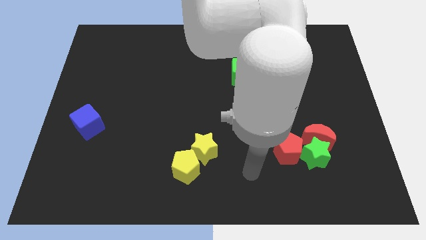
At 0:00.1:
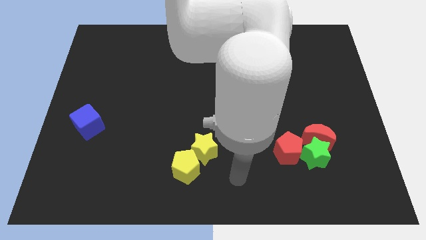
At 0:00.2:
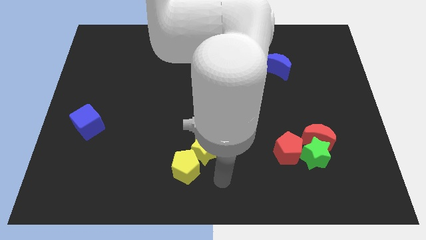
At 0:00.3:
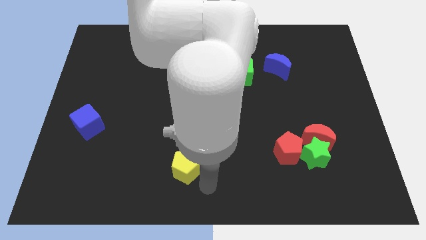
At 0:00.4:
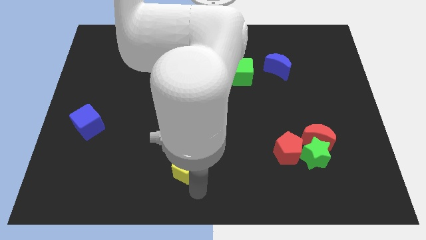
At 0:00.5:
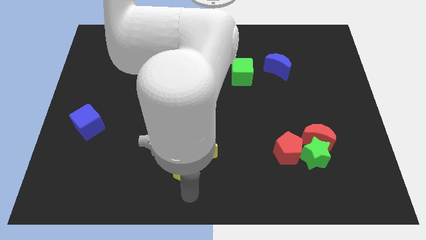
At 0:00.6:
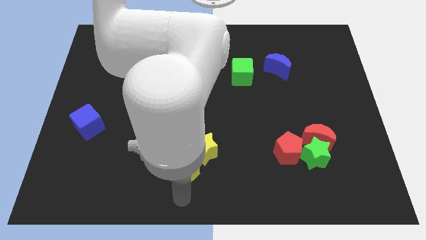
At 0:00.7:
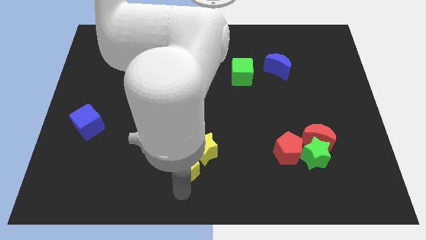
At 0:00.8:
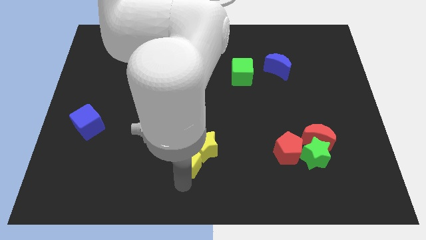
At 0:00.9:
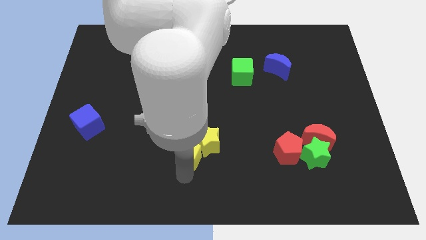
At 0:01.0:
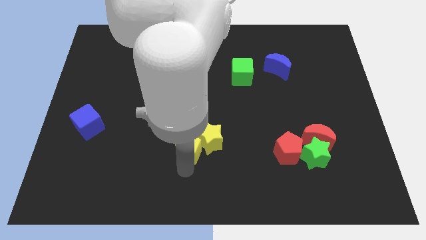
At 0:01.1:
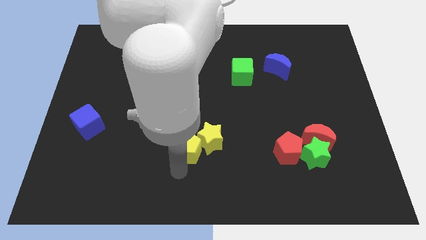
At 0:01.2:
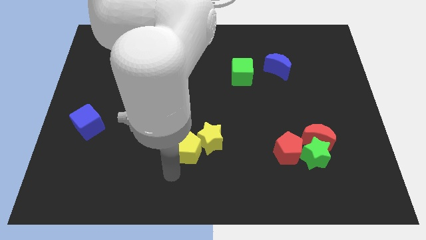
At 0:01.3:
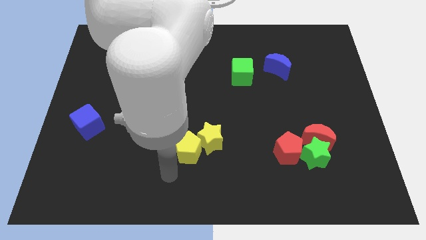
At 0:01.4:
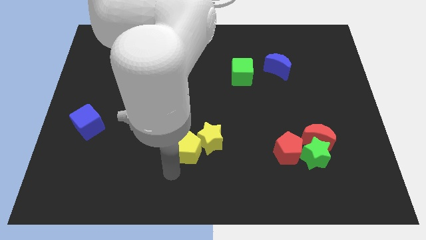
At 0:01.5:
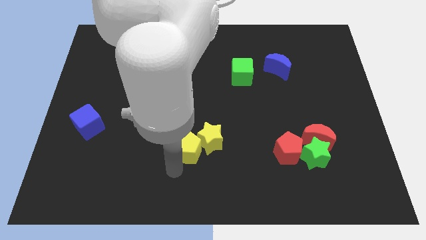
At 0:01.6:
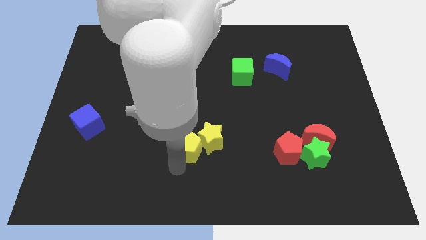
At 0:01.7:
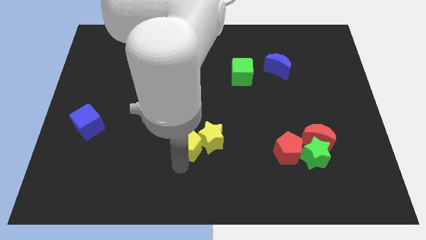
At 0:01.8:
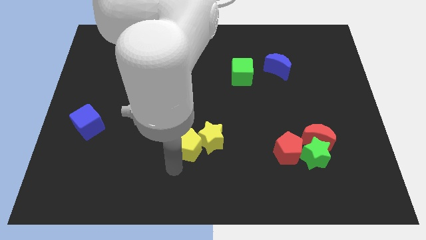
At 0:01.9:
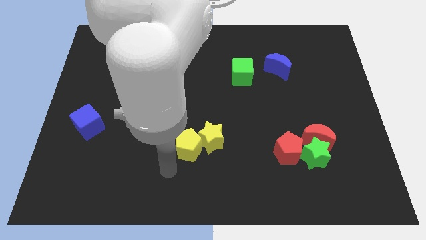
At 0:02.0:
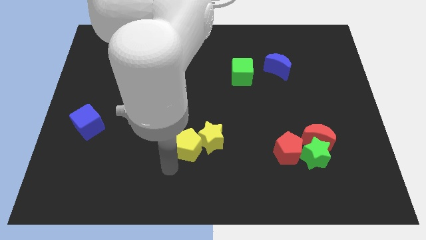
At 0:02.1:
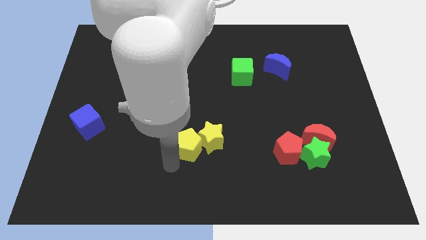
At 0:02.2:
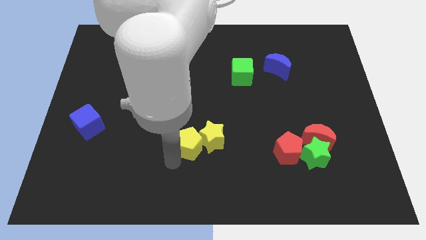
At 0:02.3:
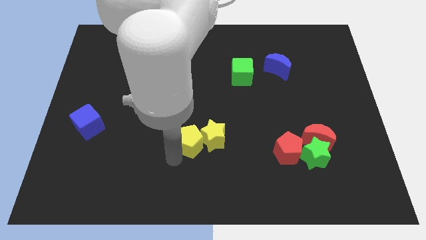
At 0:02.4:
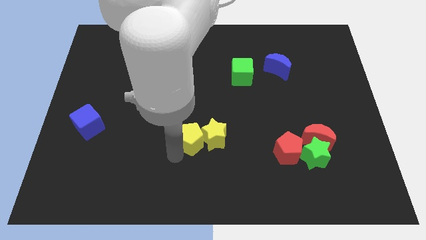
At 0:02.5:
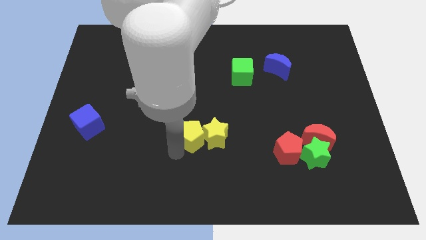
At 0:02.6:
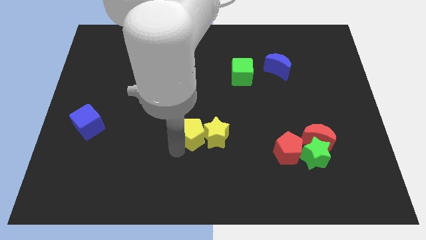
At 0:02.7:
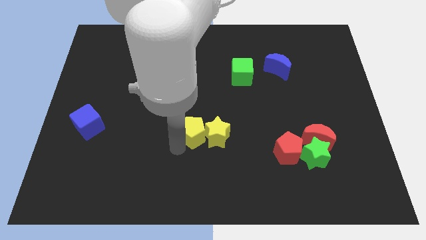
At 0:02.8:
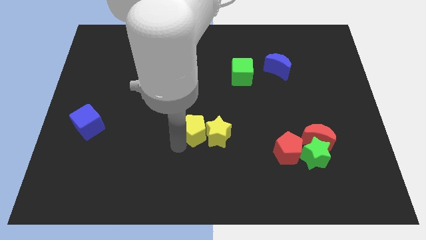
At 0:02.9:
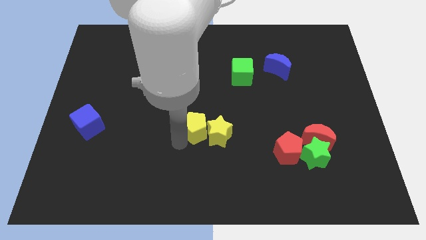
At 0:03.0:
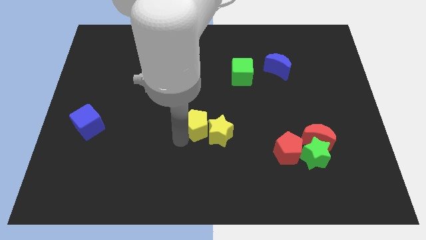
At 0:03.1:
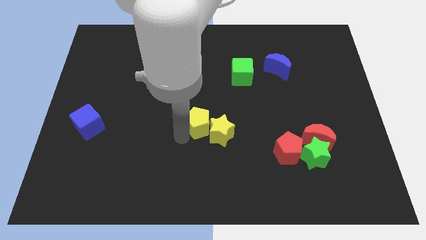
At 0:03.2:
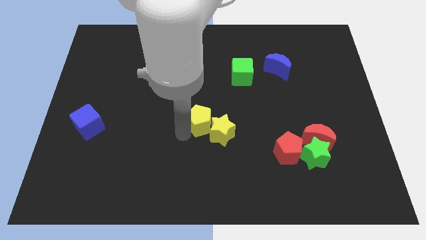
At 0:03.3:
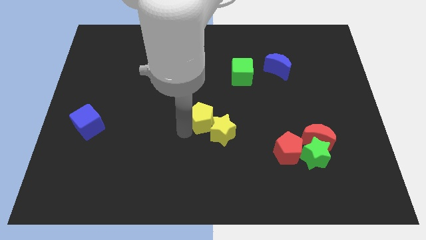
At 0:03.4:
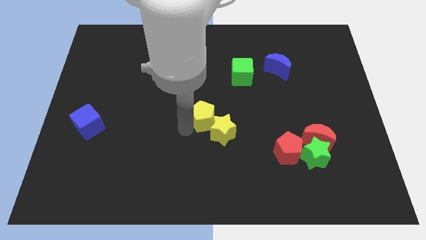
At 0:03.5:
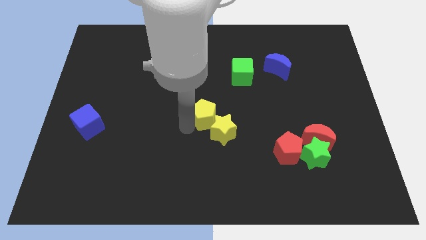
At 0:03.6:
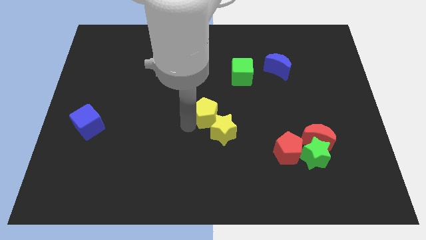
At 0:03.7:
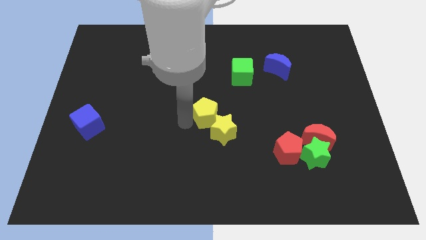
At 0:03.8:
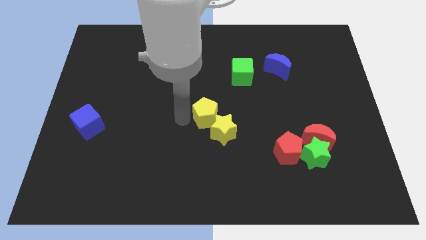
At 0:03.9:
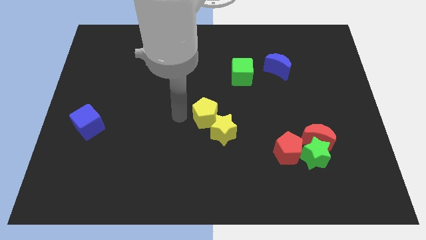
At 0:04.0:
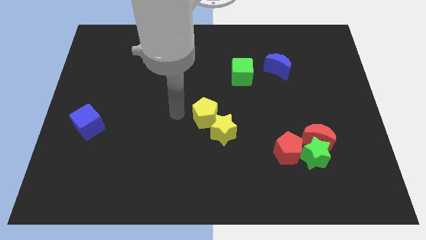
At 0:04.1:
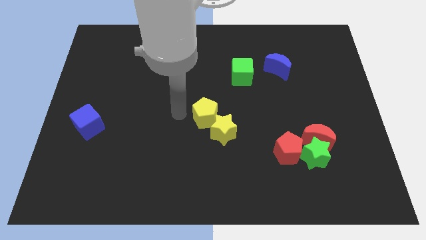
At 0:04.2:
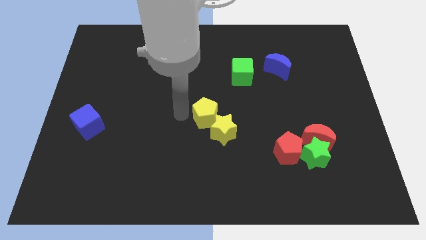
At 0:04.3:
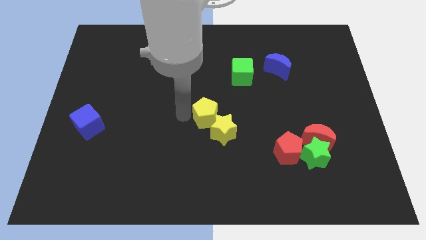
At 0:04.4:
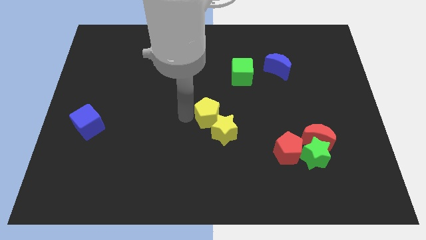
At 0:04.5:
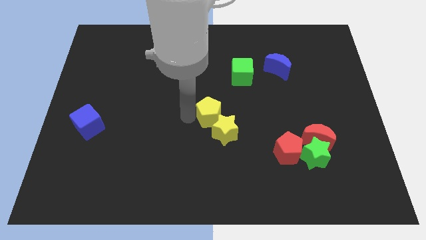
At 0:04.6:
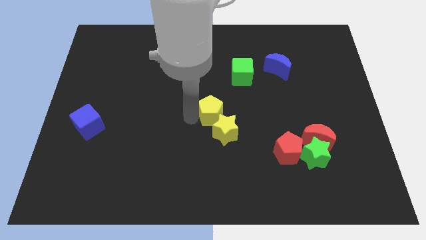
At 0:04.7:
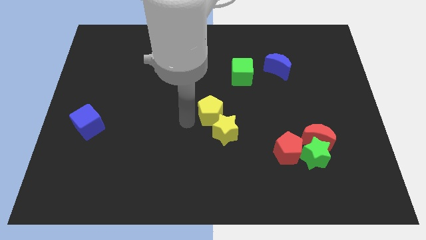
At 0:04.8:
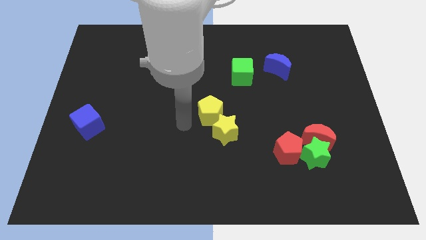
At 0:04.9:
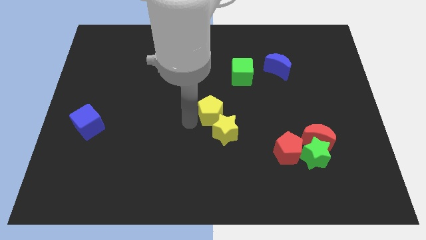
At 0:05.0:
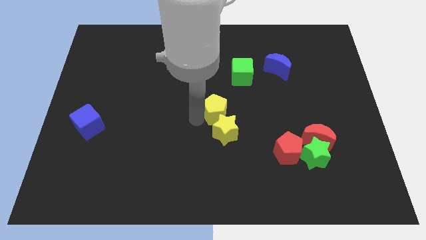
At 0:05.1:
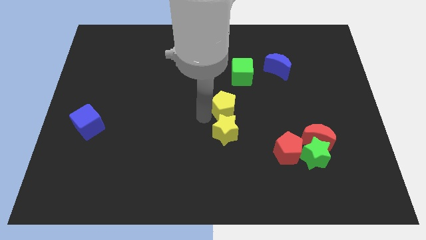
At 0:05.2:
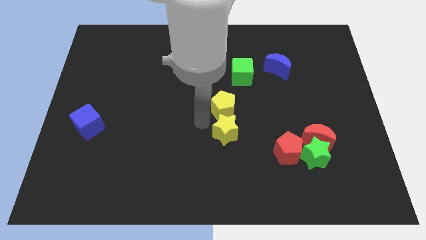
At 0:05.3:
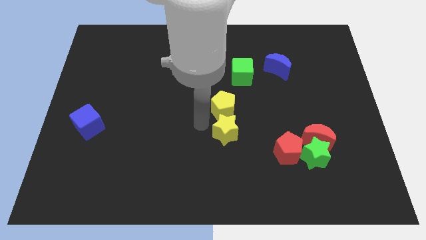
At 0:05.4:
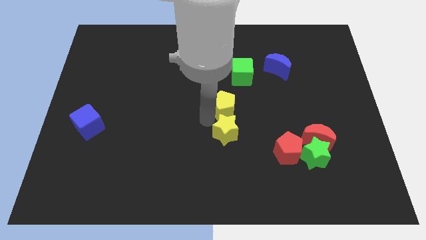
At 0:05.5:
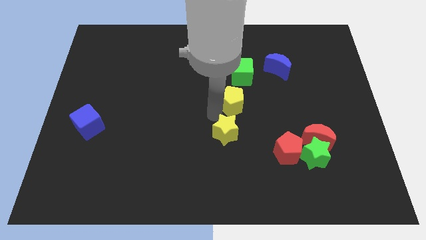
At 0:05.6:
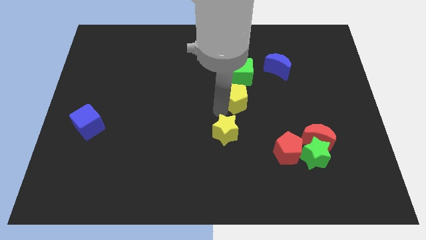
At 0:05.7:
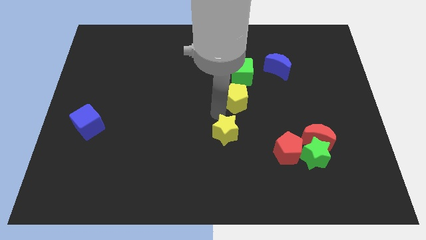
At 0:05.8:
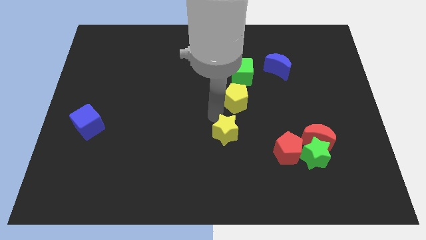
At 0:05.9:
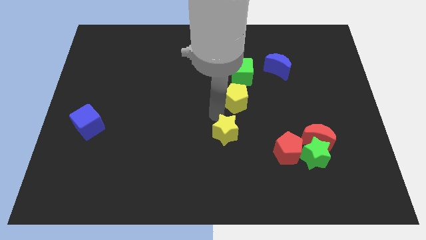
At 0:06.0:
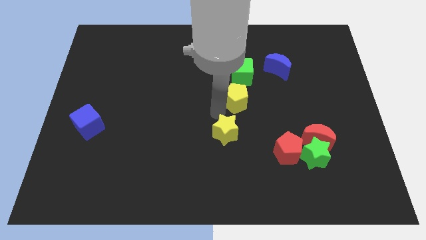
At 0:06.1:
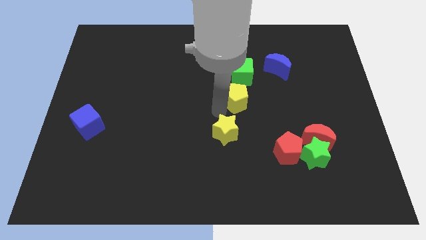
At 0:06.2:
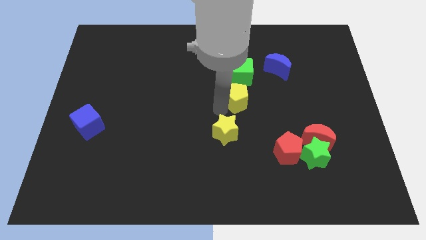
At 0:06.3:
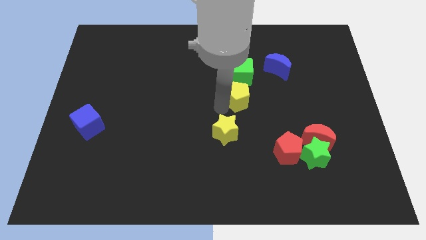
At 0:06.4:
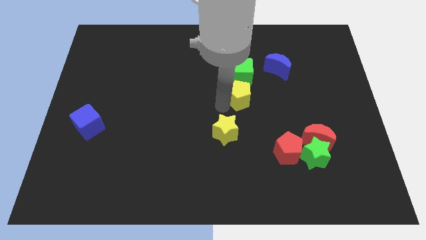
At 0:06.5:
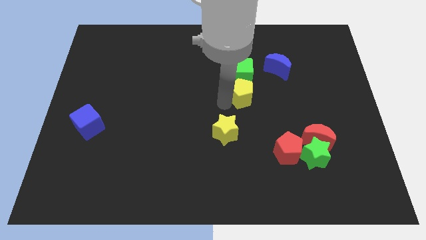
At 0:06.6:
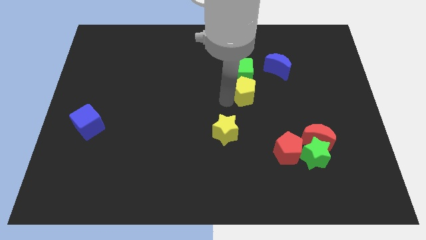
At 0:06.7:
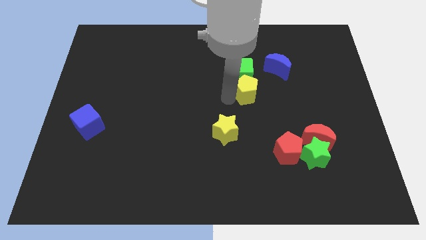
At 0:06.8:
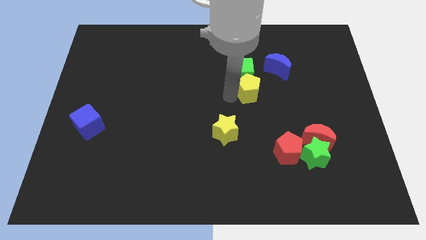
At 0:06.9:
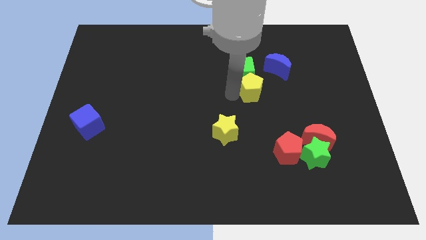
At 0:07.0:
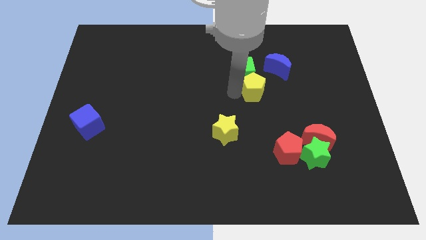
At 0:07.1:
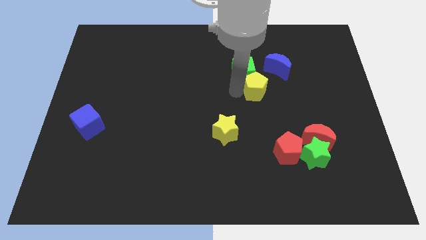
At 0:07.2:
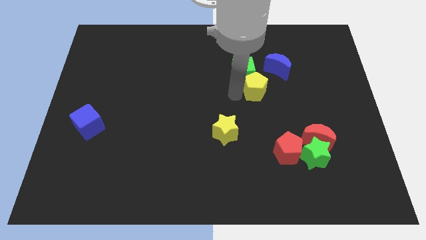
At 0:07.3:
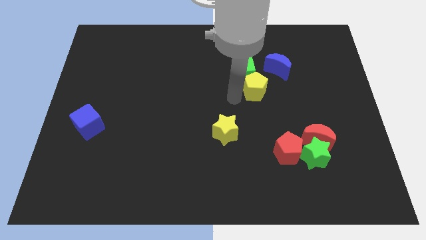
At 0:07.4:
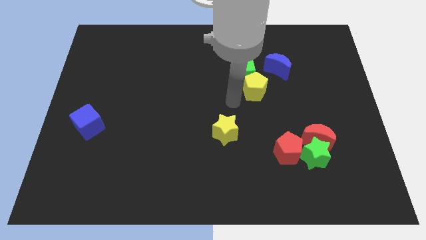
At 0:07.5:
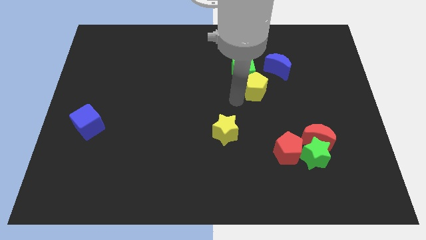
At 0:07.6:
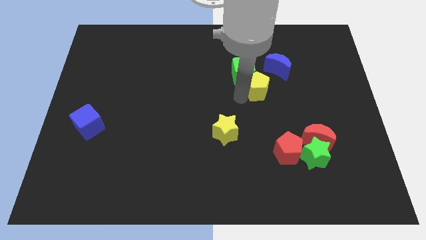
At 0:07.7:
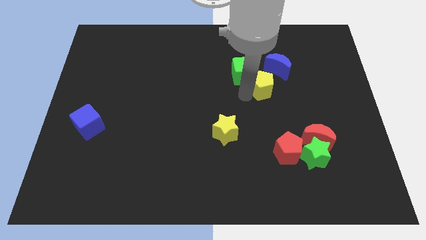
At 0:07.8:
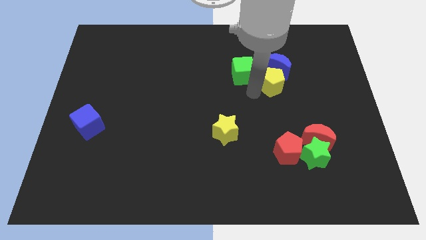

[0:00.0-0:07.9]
move the yellow pentagon towards the blue moon
